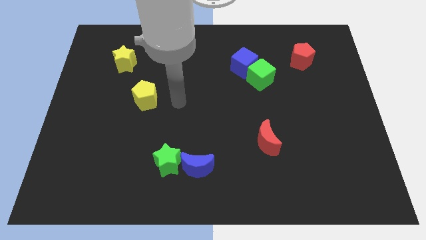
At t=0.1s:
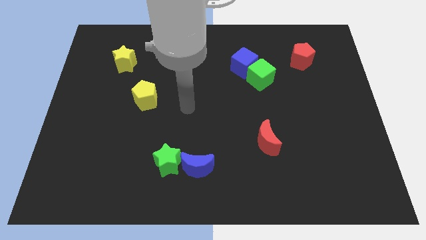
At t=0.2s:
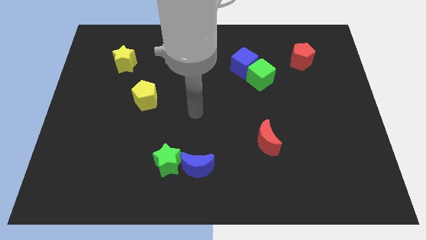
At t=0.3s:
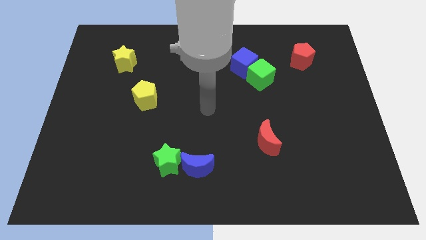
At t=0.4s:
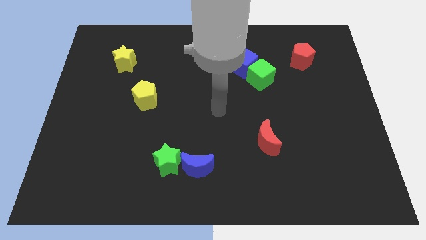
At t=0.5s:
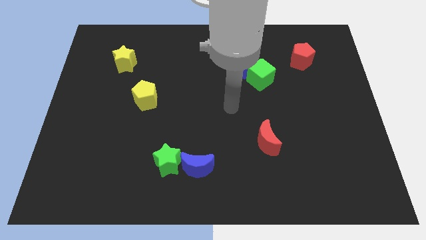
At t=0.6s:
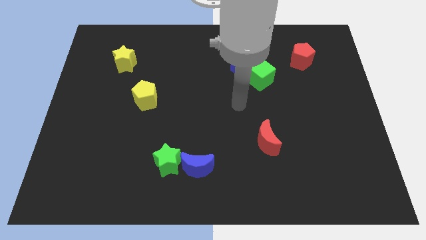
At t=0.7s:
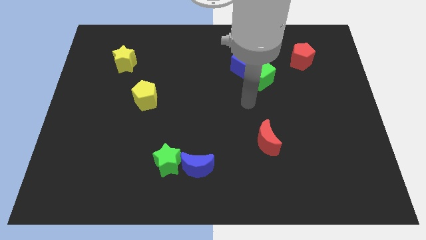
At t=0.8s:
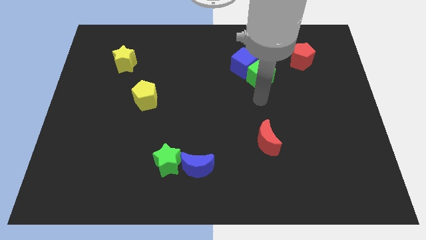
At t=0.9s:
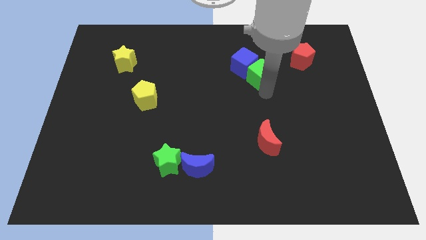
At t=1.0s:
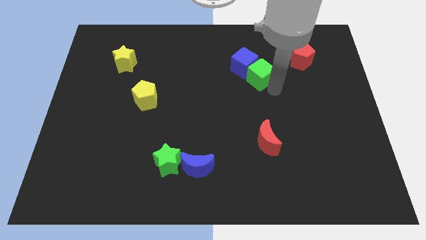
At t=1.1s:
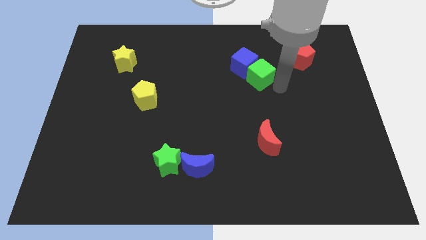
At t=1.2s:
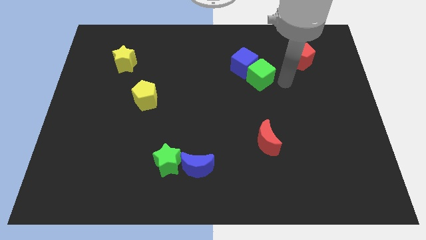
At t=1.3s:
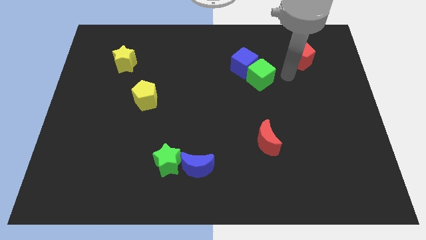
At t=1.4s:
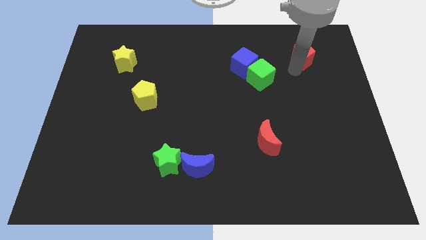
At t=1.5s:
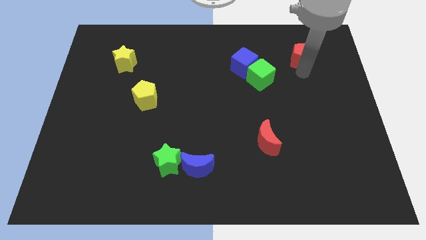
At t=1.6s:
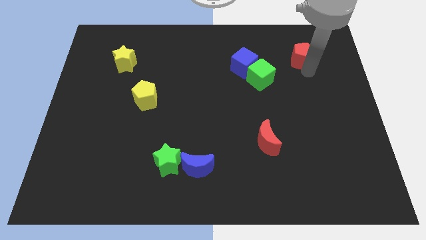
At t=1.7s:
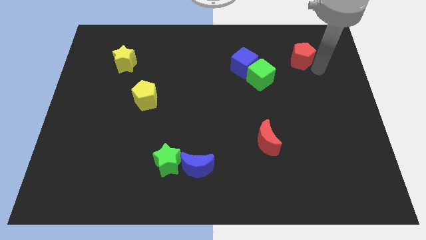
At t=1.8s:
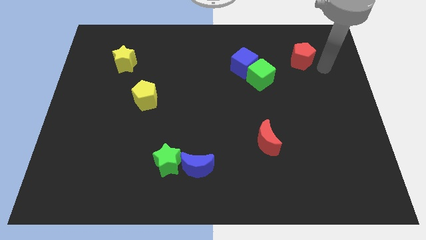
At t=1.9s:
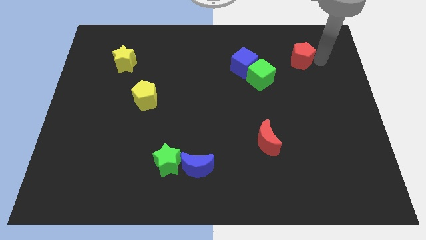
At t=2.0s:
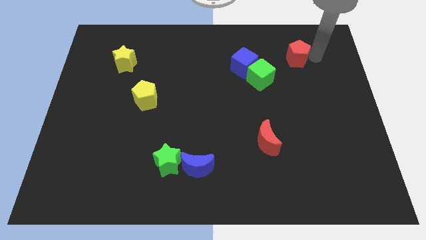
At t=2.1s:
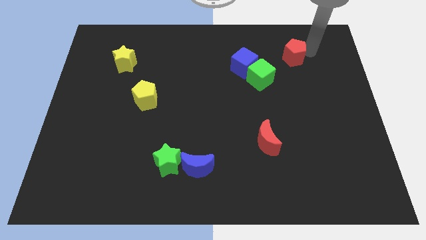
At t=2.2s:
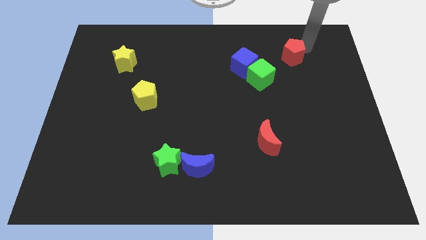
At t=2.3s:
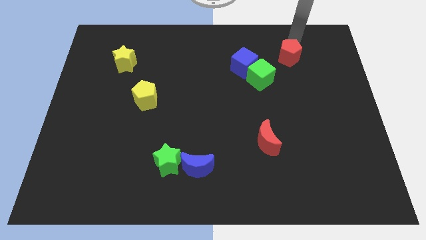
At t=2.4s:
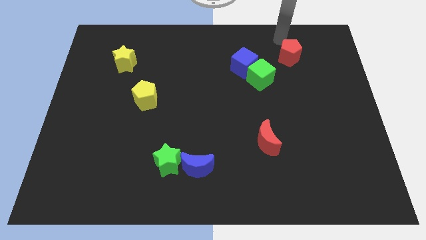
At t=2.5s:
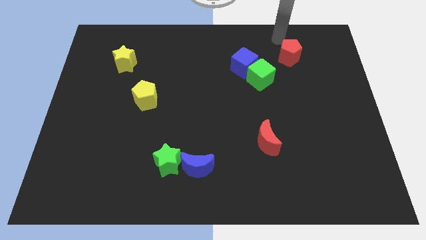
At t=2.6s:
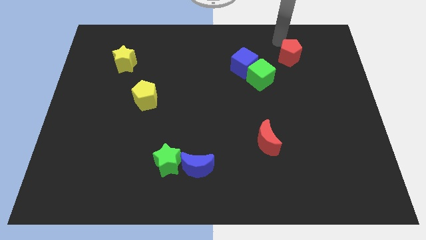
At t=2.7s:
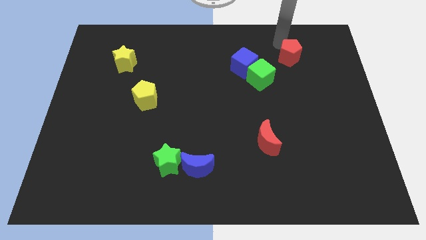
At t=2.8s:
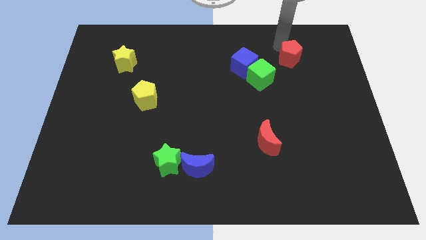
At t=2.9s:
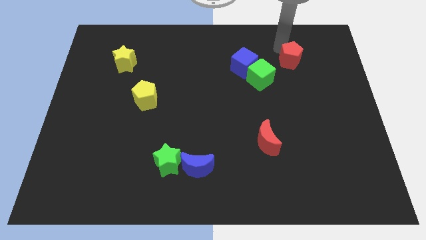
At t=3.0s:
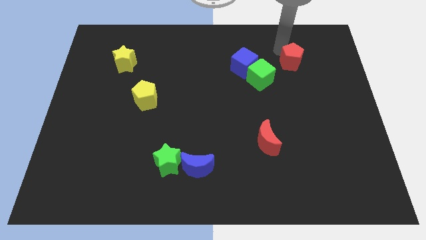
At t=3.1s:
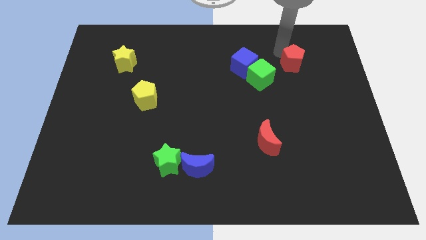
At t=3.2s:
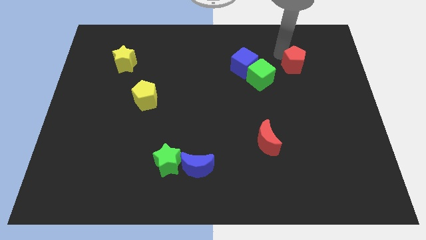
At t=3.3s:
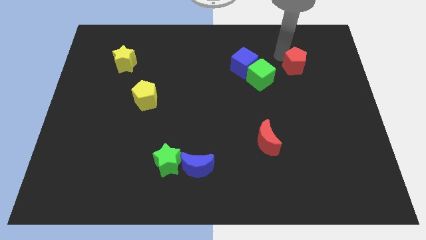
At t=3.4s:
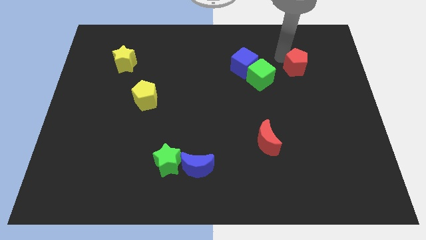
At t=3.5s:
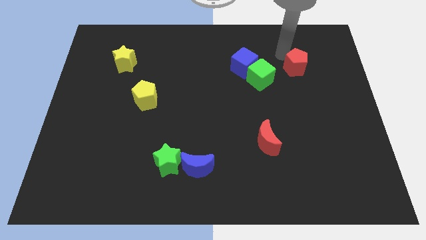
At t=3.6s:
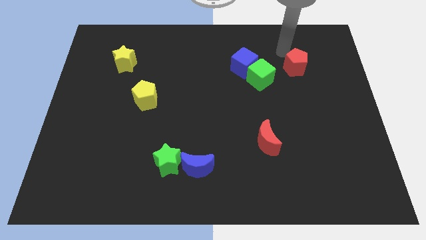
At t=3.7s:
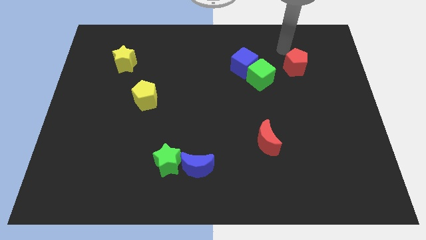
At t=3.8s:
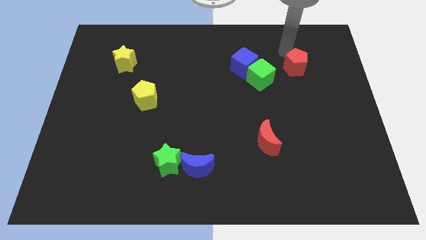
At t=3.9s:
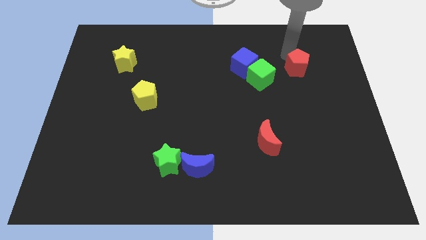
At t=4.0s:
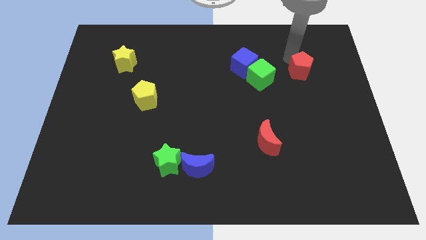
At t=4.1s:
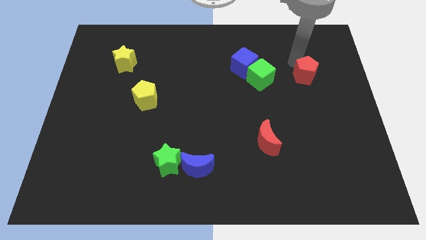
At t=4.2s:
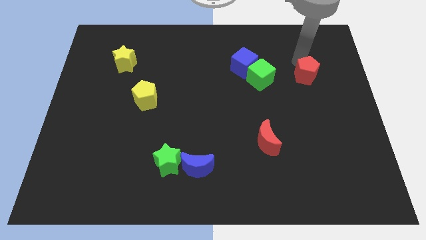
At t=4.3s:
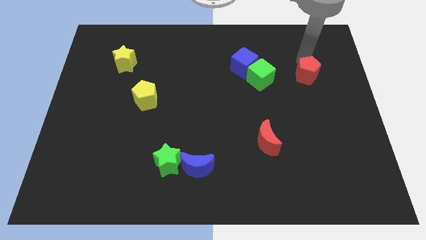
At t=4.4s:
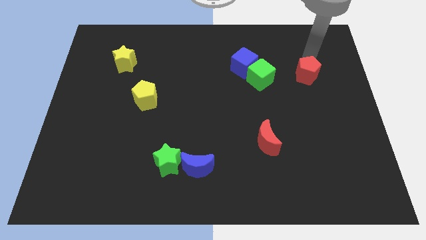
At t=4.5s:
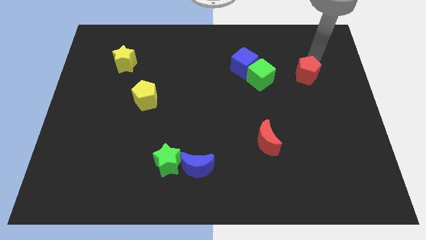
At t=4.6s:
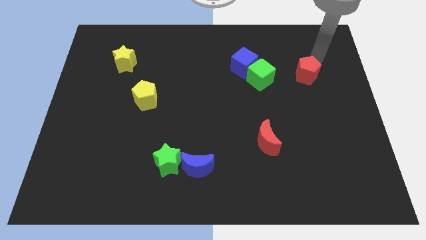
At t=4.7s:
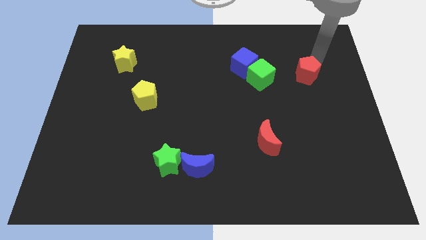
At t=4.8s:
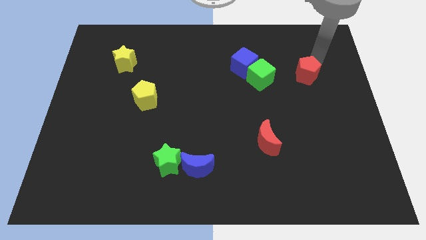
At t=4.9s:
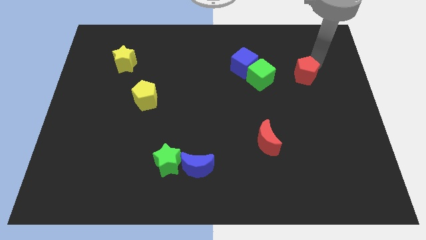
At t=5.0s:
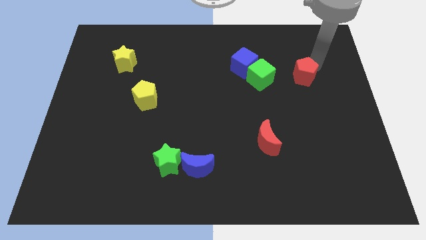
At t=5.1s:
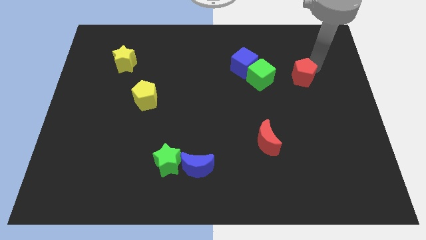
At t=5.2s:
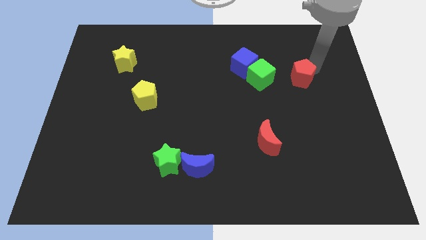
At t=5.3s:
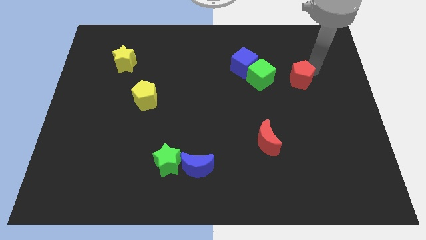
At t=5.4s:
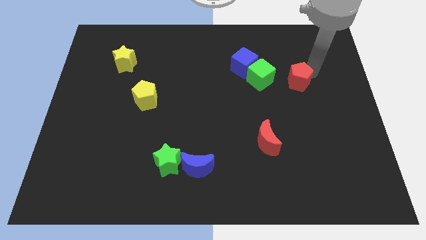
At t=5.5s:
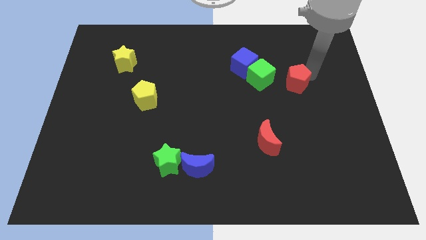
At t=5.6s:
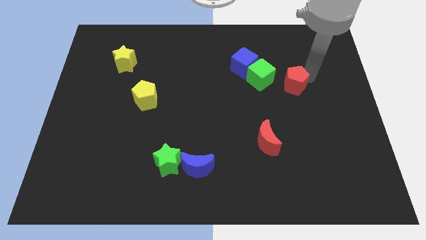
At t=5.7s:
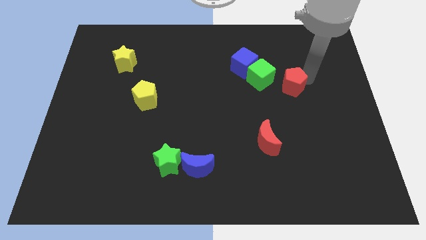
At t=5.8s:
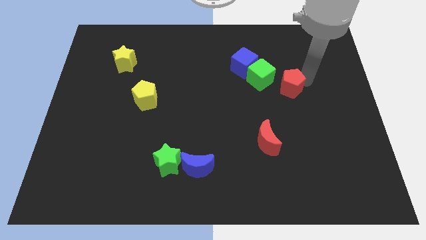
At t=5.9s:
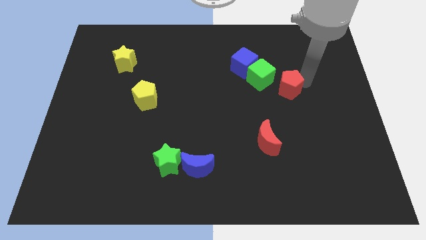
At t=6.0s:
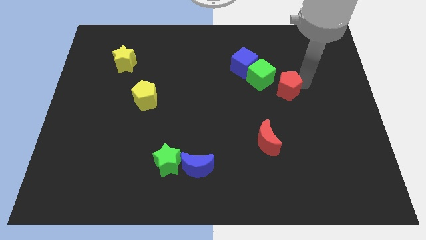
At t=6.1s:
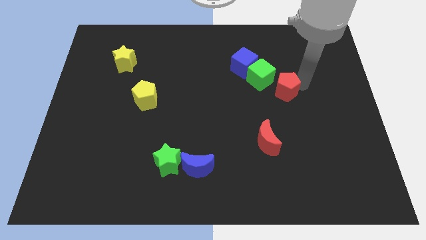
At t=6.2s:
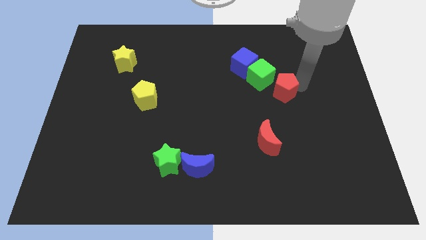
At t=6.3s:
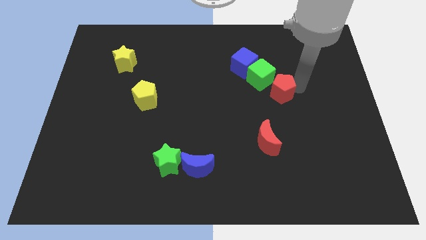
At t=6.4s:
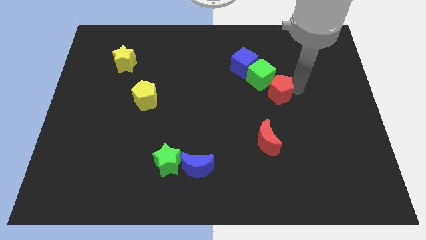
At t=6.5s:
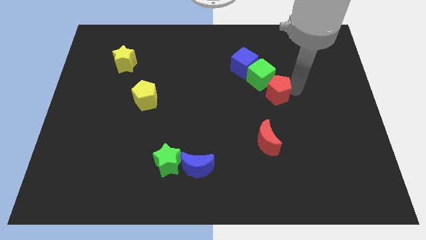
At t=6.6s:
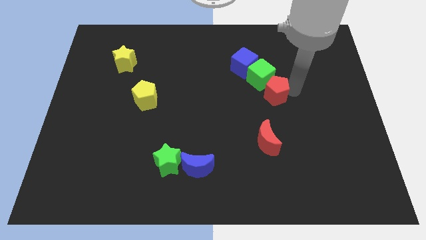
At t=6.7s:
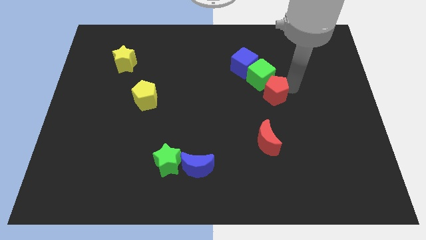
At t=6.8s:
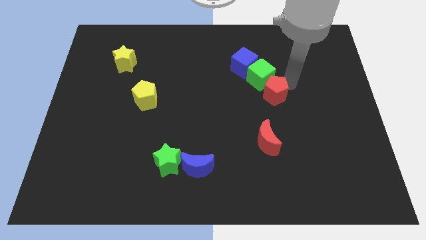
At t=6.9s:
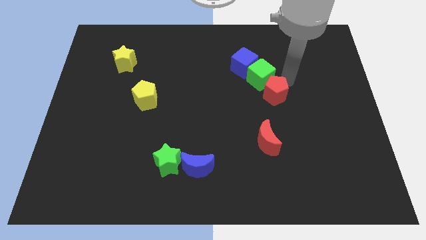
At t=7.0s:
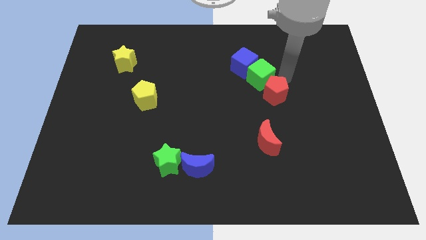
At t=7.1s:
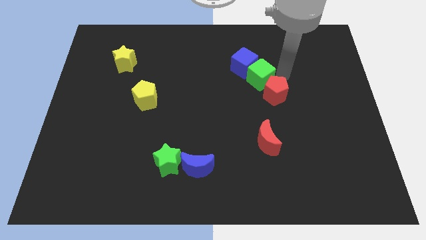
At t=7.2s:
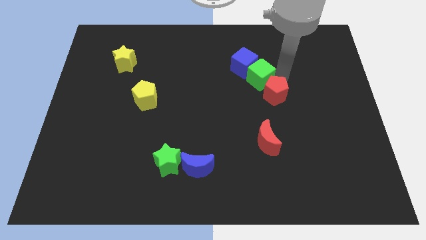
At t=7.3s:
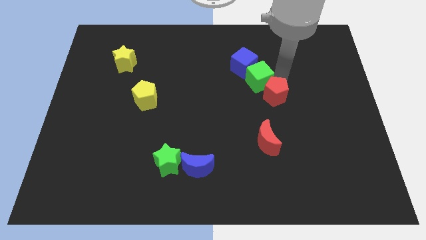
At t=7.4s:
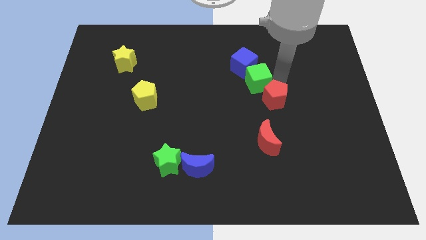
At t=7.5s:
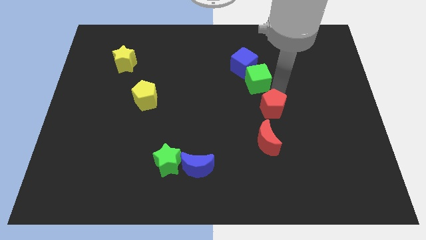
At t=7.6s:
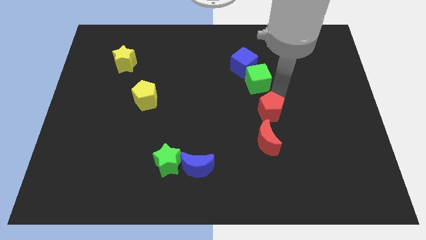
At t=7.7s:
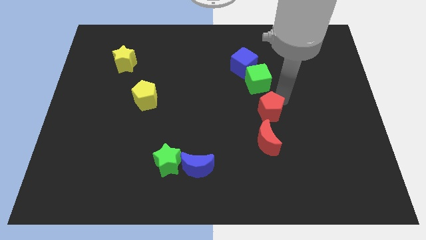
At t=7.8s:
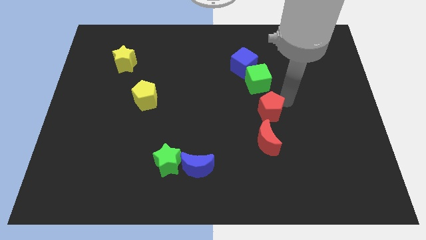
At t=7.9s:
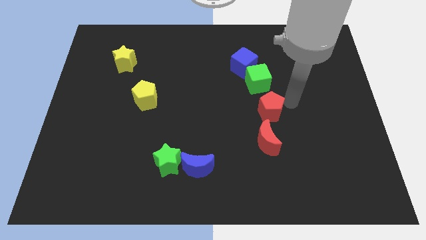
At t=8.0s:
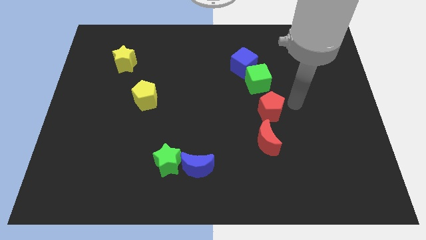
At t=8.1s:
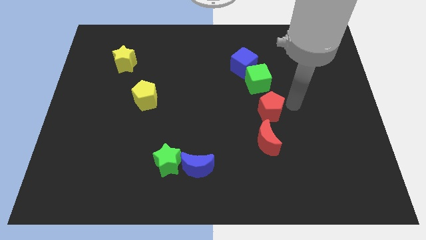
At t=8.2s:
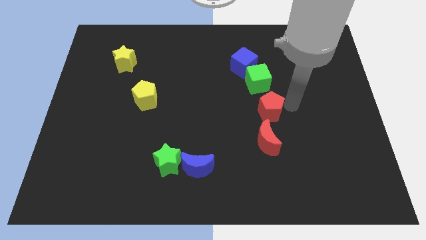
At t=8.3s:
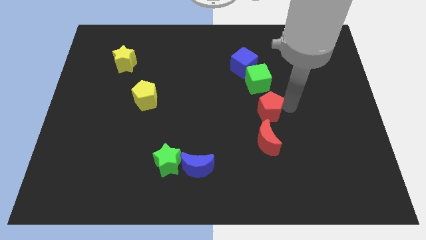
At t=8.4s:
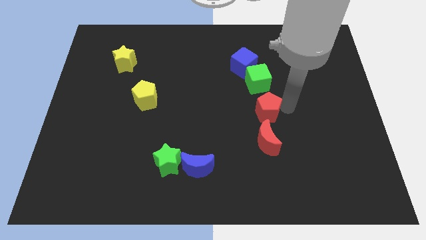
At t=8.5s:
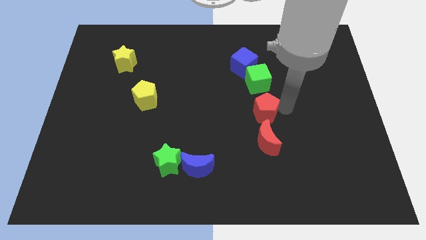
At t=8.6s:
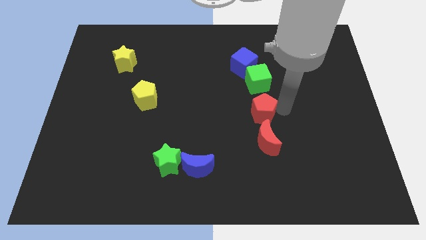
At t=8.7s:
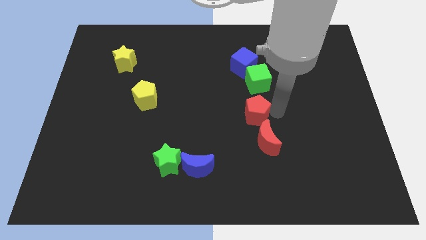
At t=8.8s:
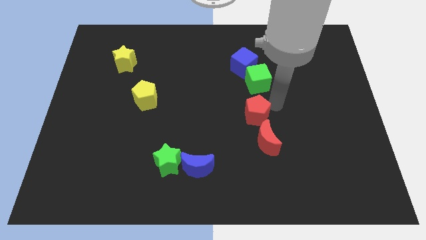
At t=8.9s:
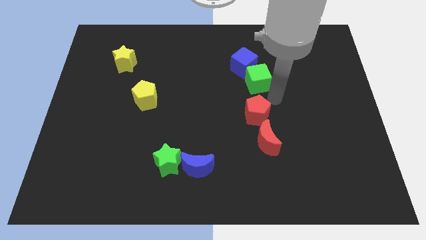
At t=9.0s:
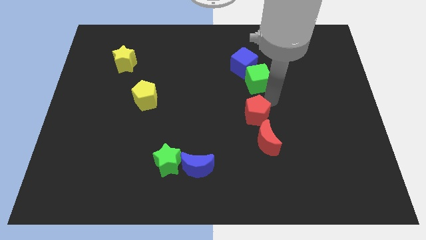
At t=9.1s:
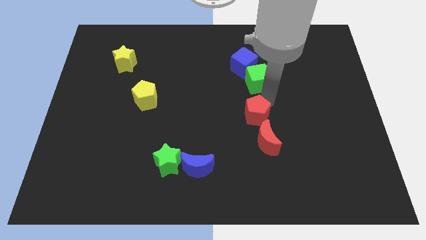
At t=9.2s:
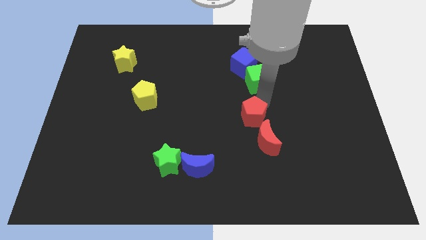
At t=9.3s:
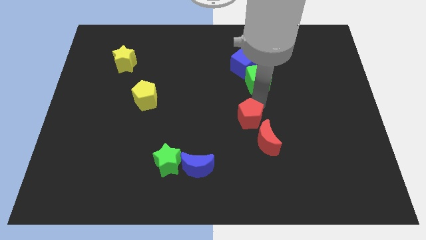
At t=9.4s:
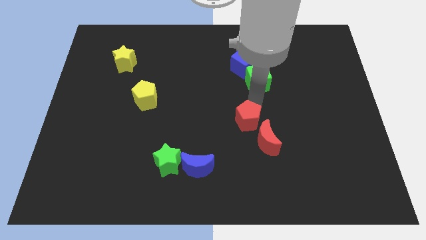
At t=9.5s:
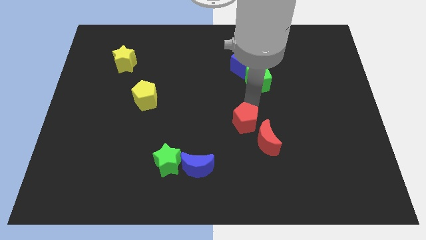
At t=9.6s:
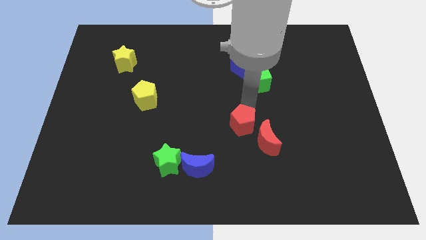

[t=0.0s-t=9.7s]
slide the red pentagon to the left side of the red moon
